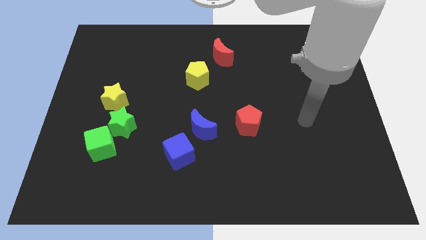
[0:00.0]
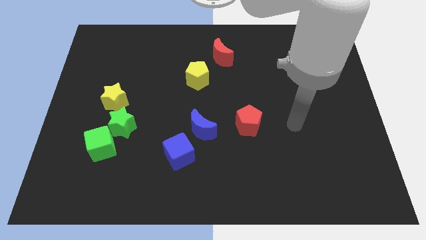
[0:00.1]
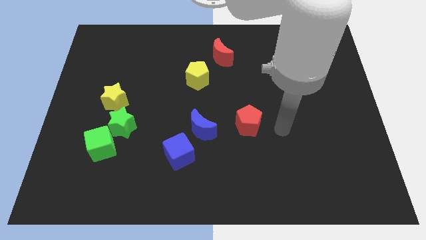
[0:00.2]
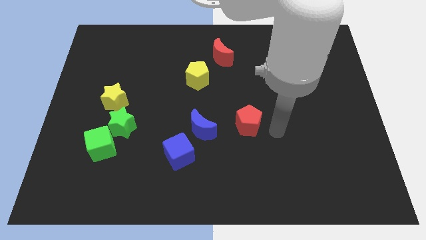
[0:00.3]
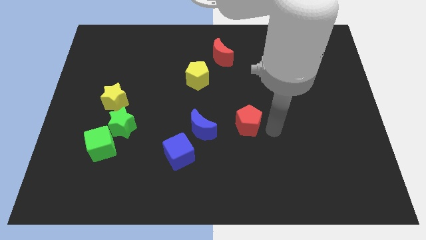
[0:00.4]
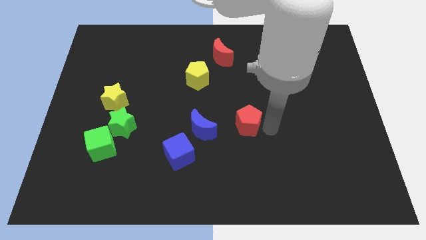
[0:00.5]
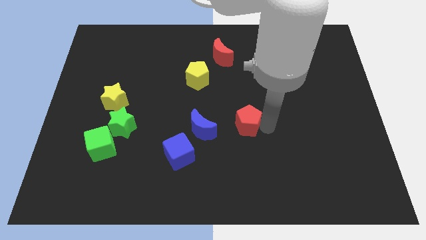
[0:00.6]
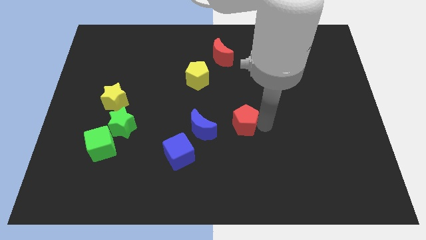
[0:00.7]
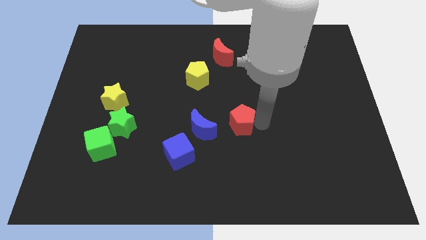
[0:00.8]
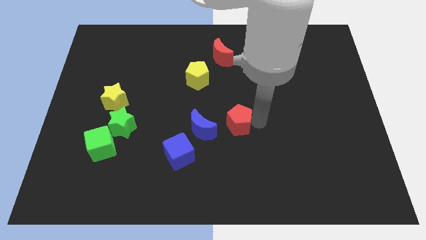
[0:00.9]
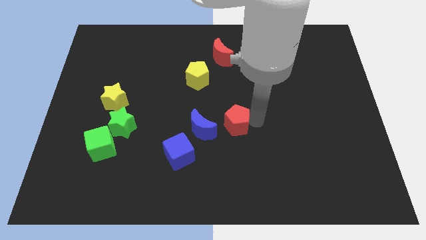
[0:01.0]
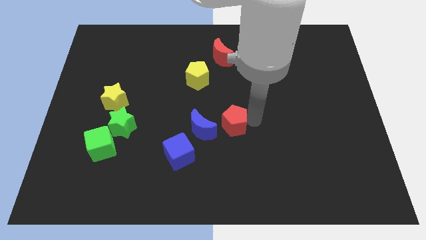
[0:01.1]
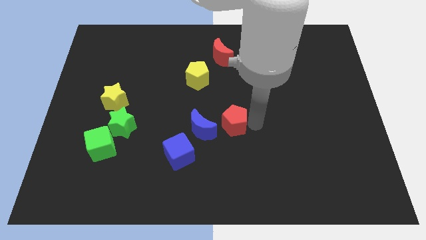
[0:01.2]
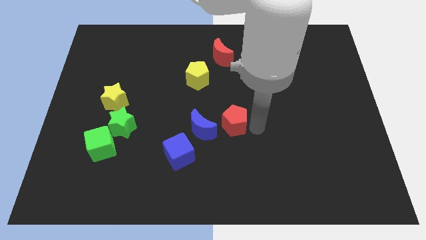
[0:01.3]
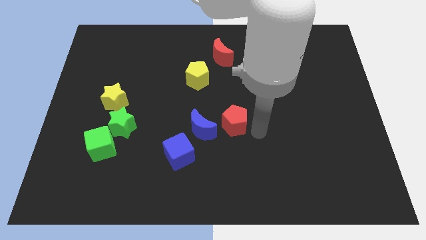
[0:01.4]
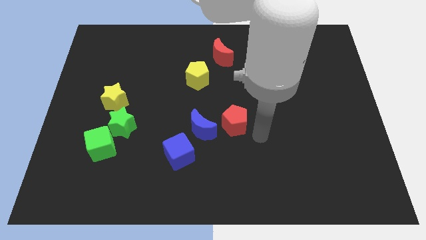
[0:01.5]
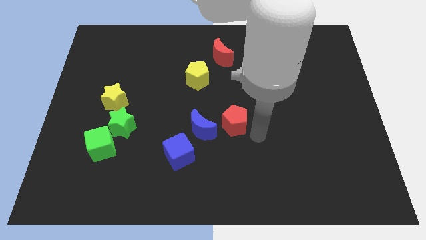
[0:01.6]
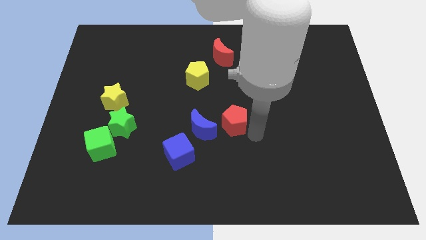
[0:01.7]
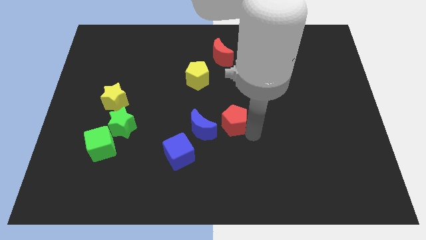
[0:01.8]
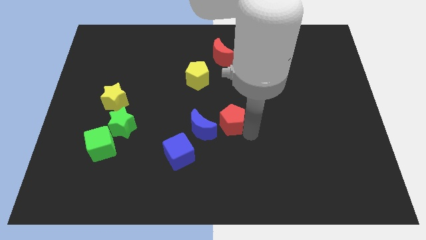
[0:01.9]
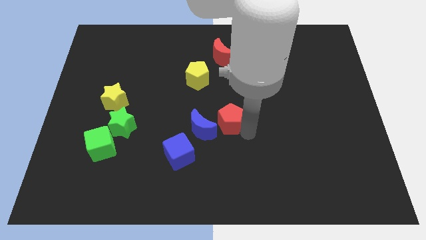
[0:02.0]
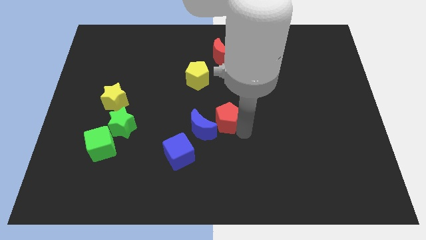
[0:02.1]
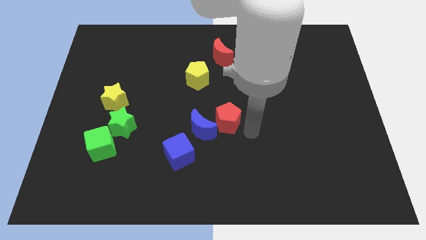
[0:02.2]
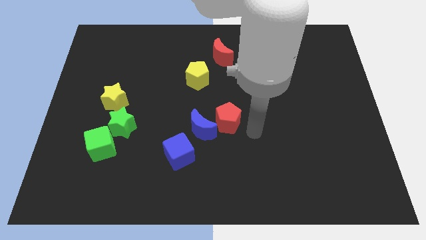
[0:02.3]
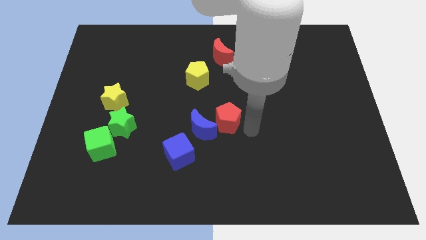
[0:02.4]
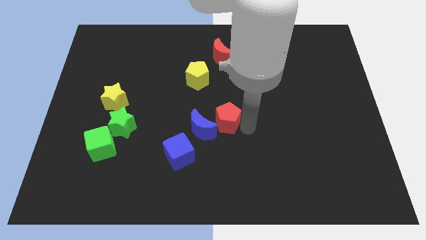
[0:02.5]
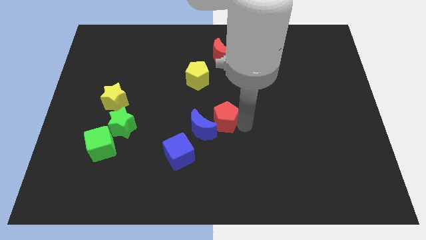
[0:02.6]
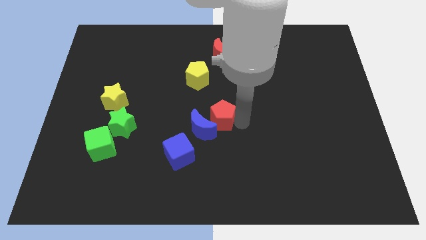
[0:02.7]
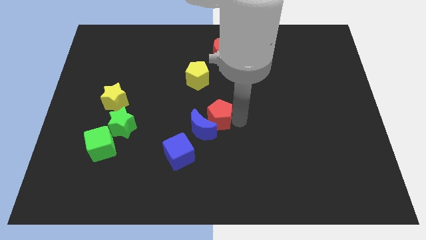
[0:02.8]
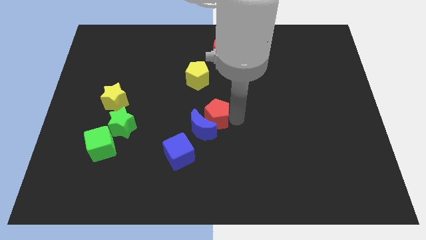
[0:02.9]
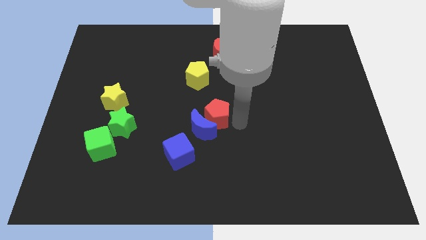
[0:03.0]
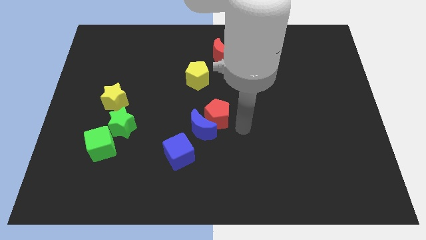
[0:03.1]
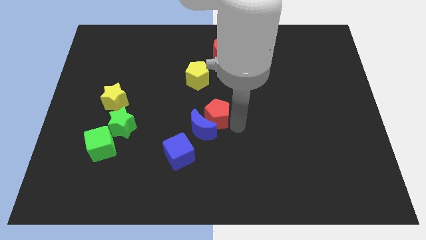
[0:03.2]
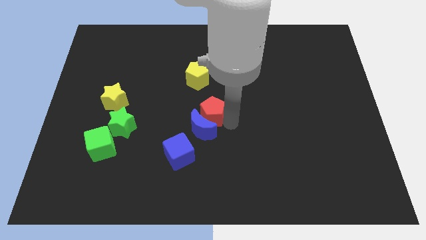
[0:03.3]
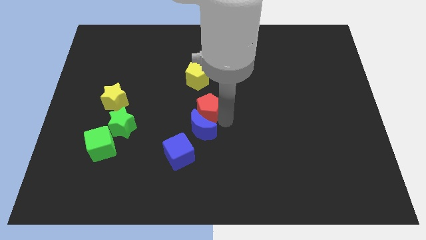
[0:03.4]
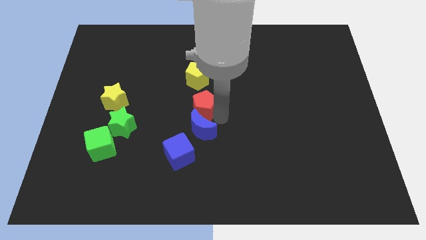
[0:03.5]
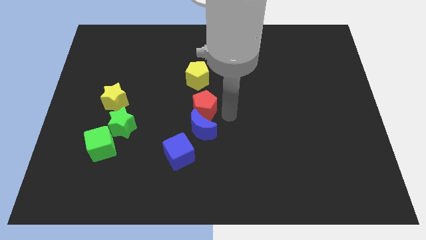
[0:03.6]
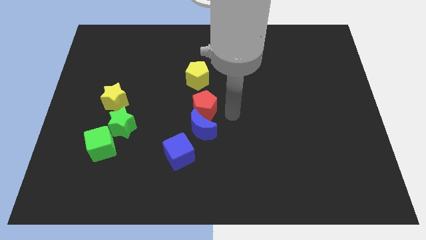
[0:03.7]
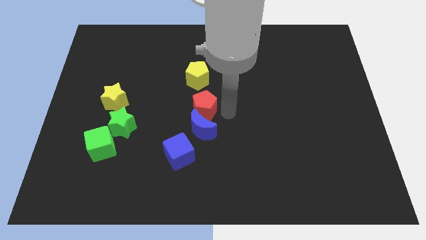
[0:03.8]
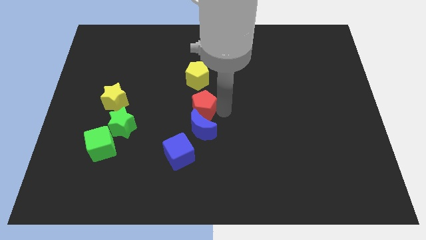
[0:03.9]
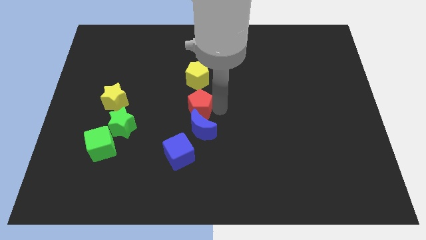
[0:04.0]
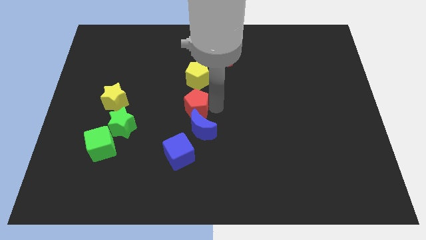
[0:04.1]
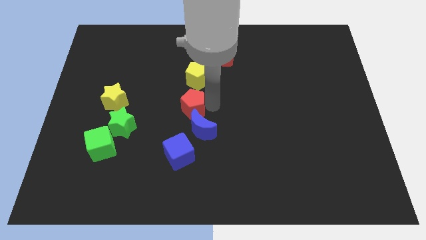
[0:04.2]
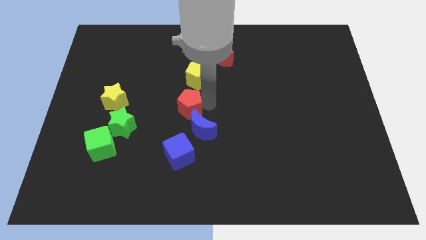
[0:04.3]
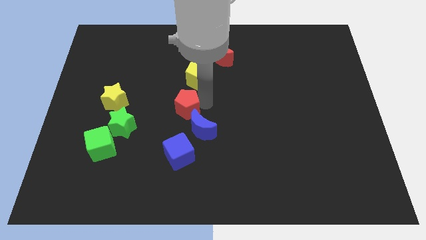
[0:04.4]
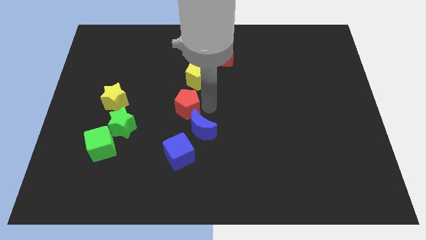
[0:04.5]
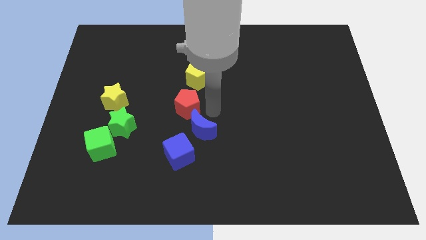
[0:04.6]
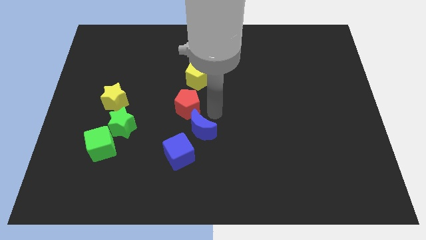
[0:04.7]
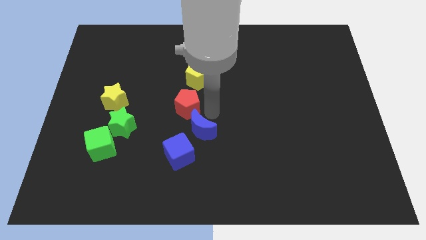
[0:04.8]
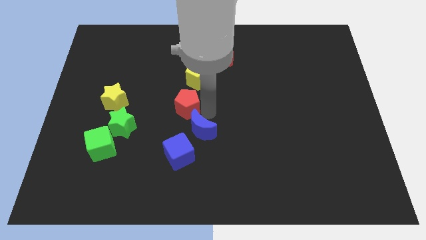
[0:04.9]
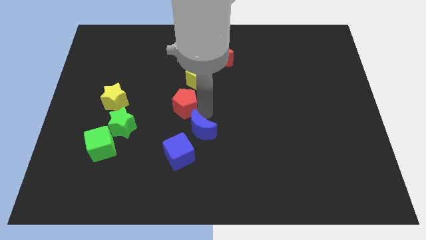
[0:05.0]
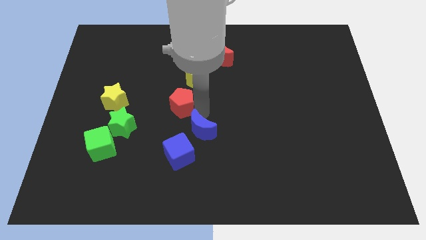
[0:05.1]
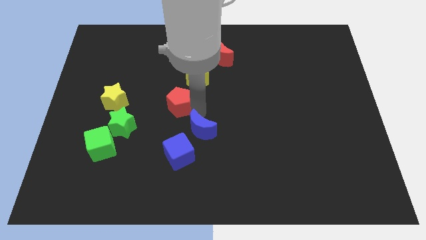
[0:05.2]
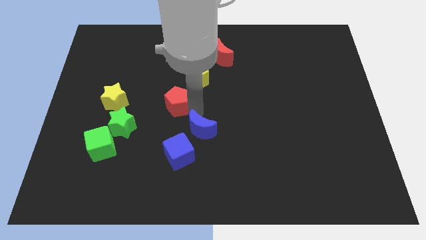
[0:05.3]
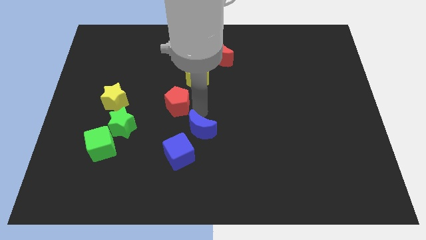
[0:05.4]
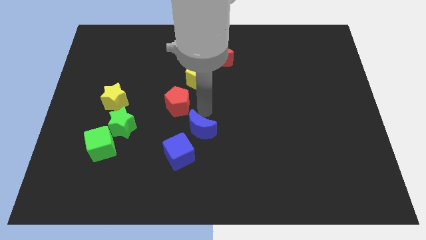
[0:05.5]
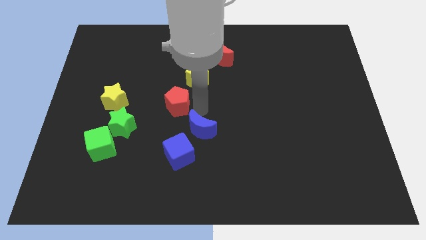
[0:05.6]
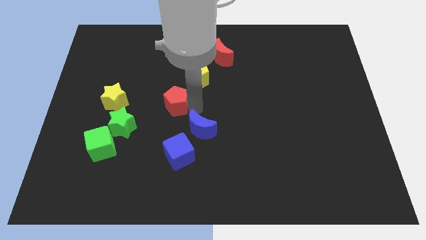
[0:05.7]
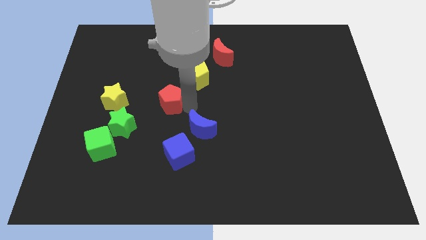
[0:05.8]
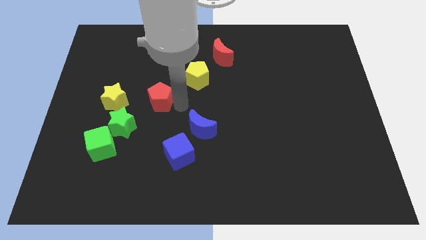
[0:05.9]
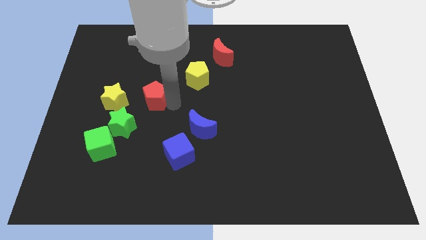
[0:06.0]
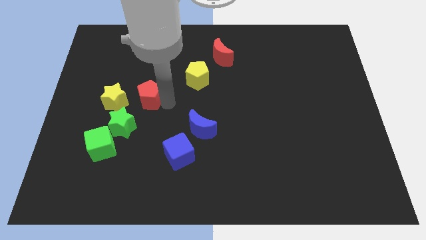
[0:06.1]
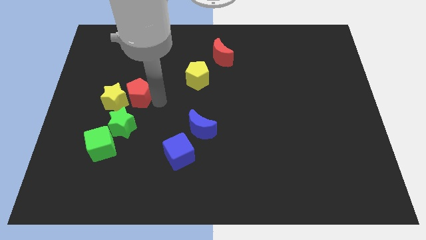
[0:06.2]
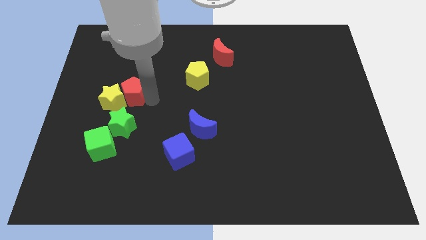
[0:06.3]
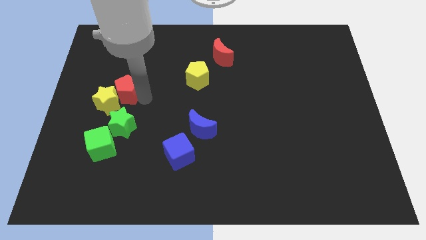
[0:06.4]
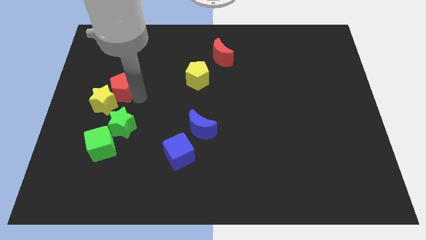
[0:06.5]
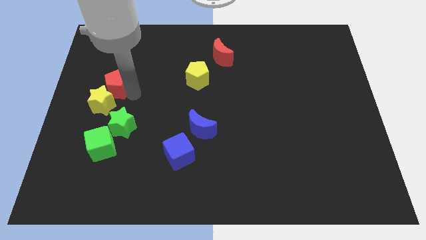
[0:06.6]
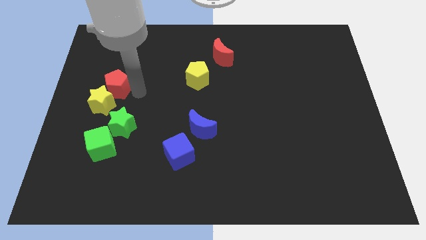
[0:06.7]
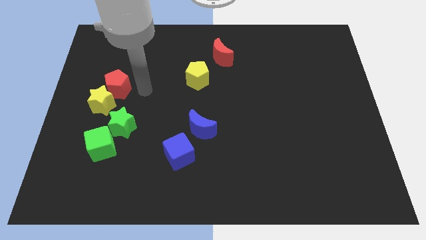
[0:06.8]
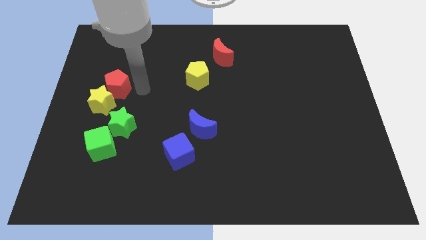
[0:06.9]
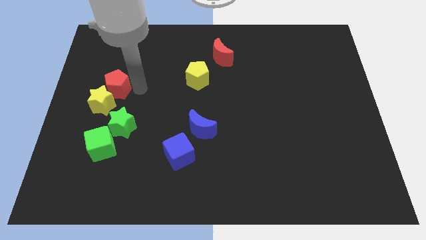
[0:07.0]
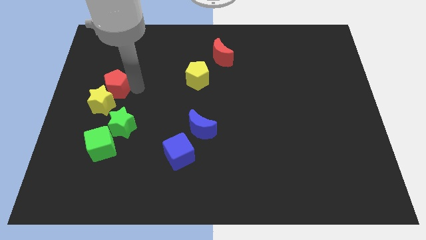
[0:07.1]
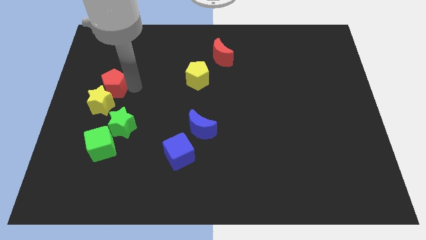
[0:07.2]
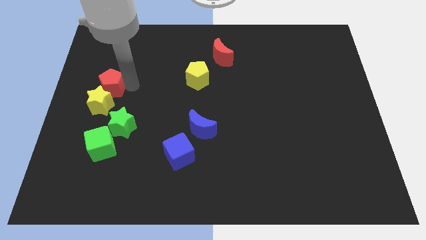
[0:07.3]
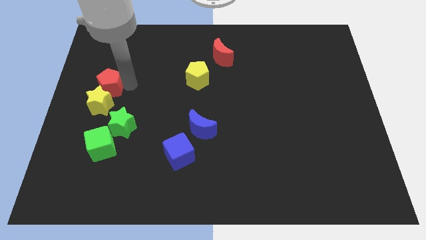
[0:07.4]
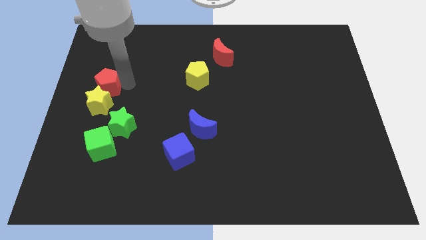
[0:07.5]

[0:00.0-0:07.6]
push the red pentagon to the left side
